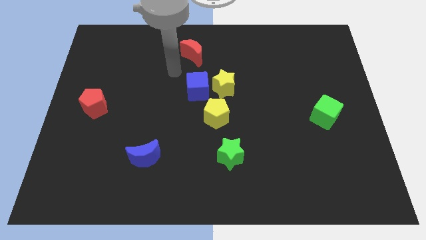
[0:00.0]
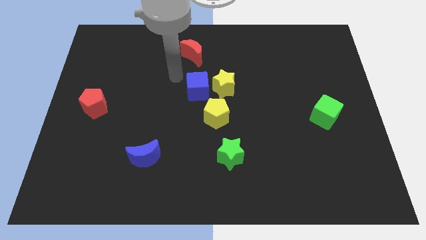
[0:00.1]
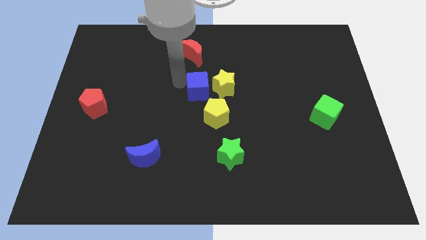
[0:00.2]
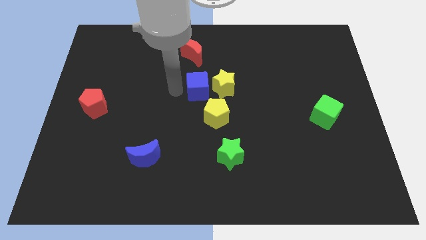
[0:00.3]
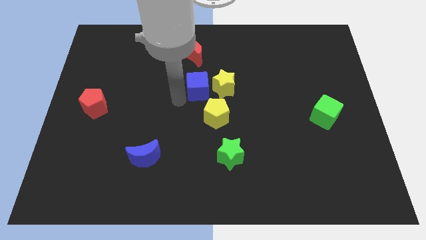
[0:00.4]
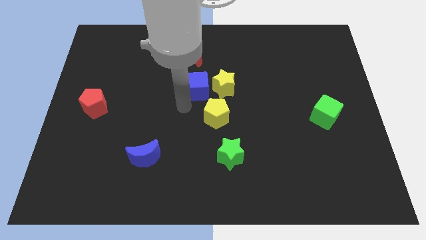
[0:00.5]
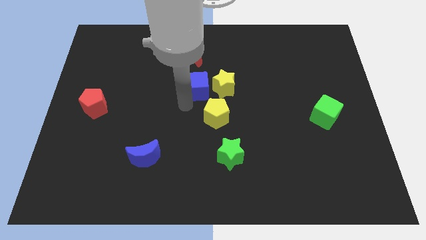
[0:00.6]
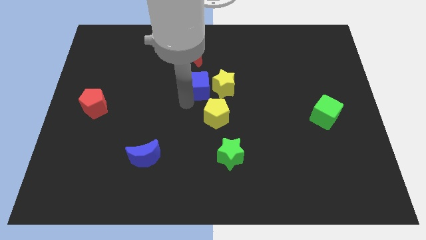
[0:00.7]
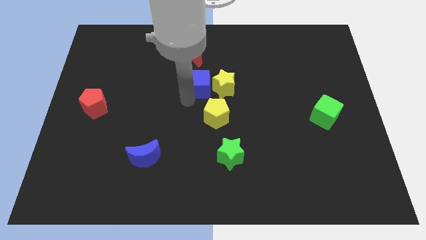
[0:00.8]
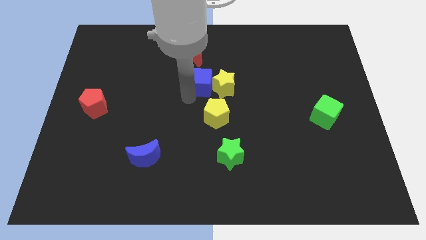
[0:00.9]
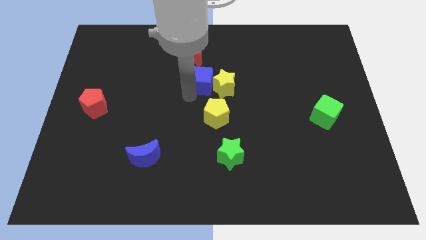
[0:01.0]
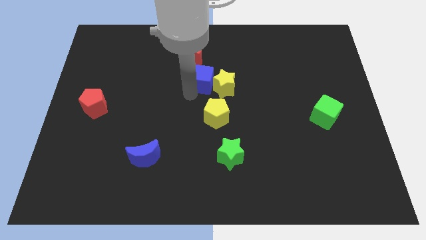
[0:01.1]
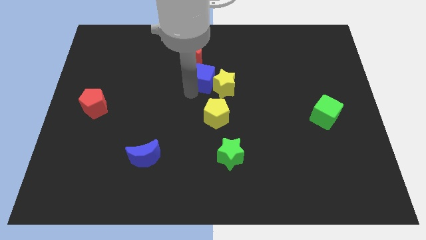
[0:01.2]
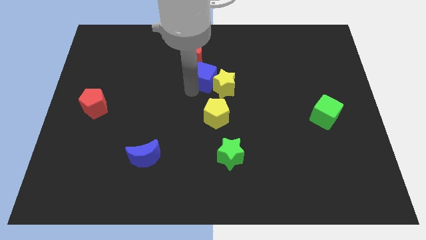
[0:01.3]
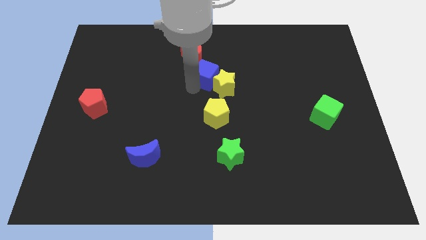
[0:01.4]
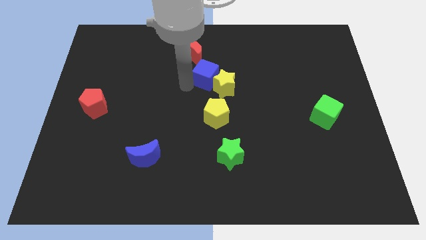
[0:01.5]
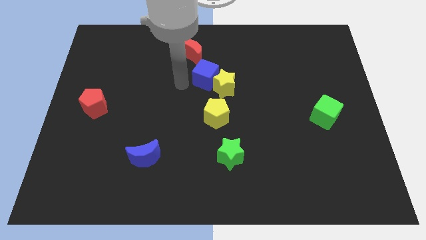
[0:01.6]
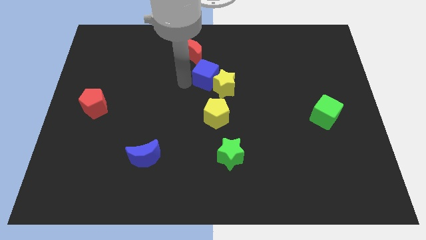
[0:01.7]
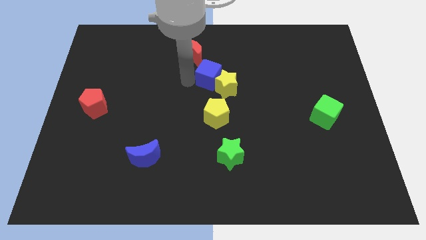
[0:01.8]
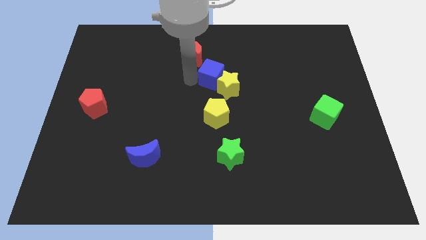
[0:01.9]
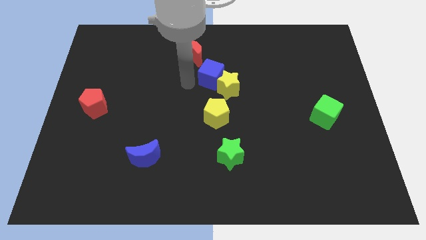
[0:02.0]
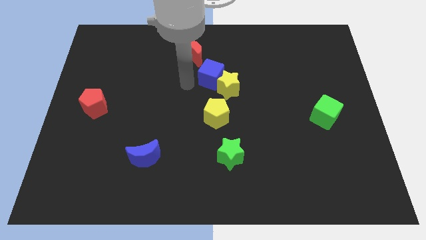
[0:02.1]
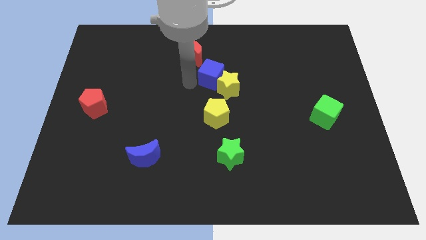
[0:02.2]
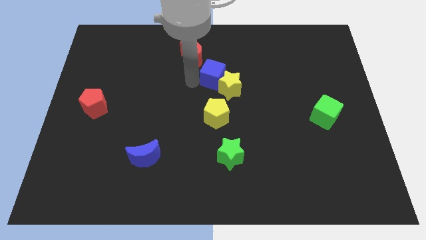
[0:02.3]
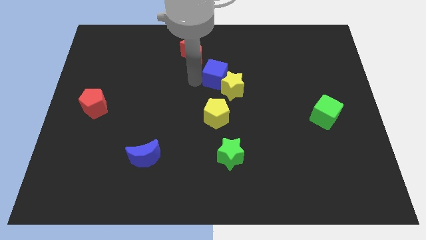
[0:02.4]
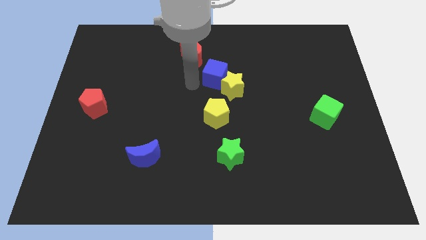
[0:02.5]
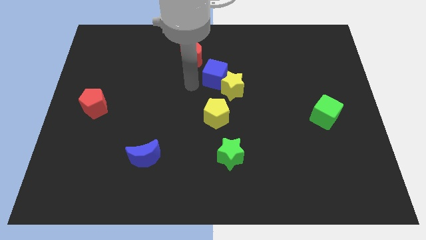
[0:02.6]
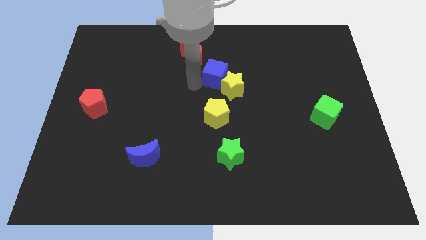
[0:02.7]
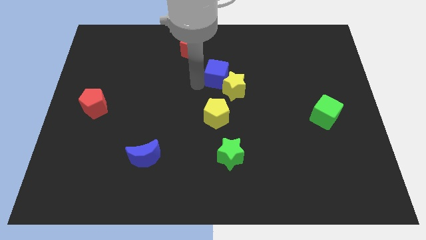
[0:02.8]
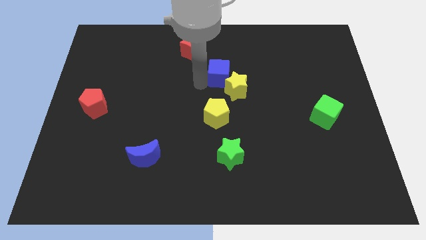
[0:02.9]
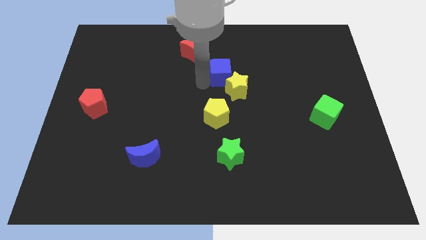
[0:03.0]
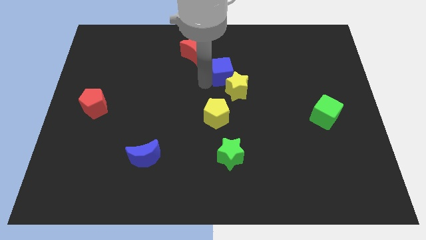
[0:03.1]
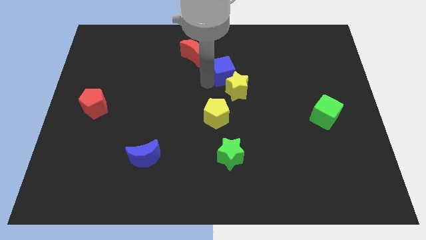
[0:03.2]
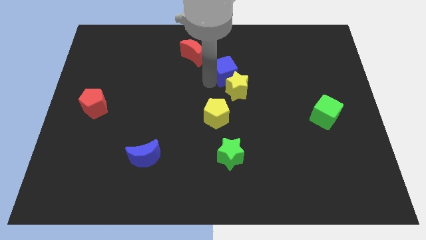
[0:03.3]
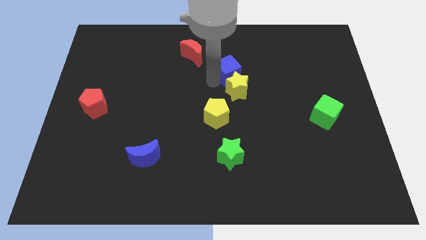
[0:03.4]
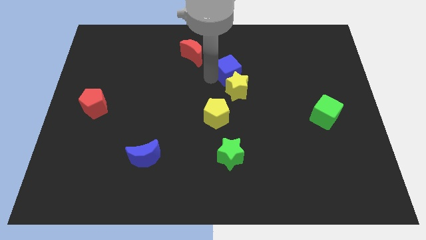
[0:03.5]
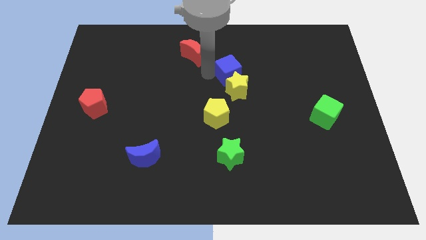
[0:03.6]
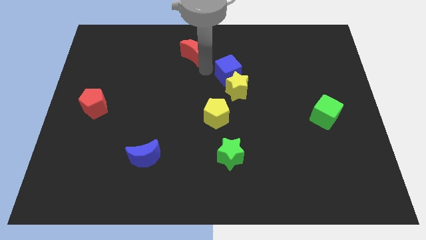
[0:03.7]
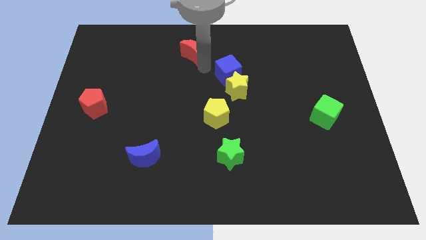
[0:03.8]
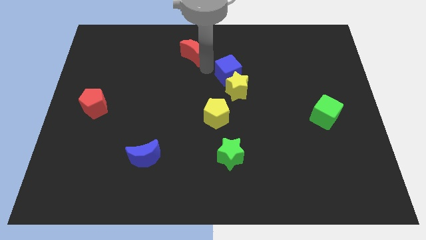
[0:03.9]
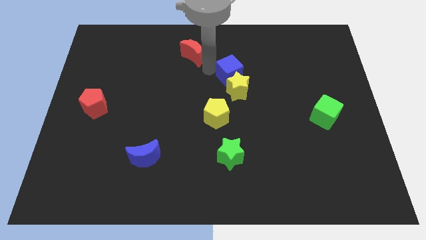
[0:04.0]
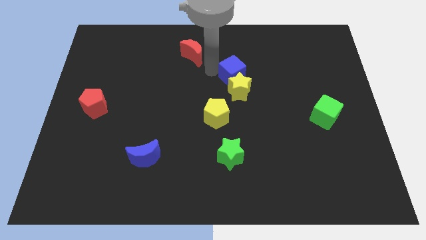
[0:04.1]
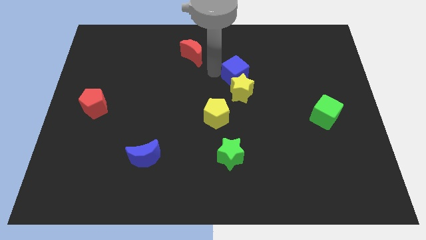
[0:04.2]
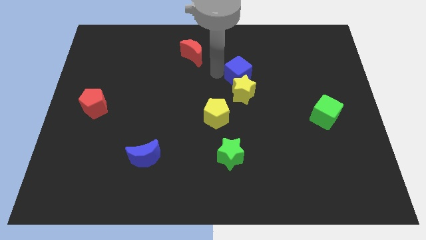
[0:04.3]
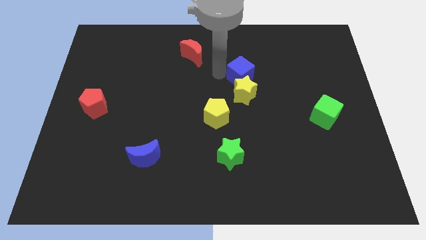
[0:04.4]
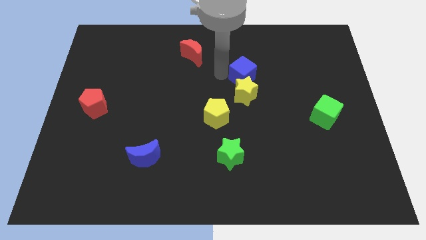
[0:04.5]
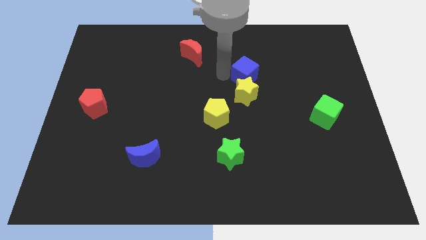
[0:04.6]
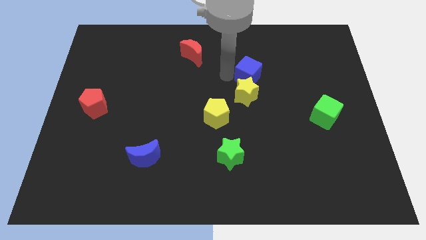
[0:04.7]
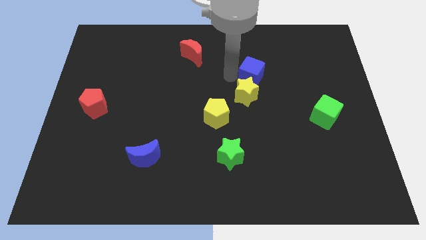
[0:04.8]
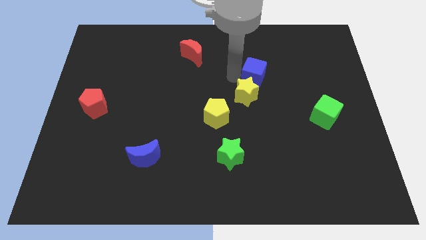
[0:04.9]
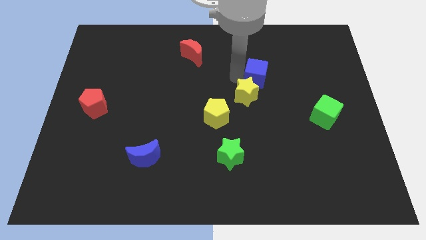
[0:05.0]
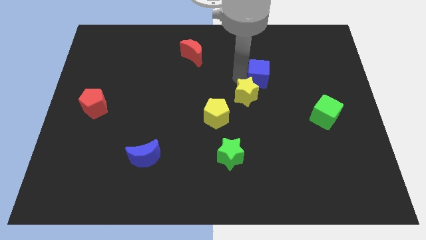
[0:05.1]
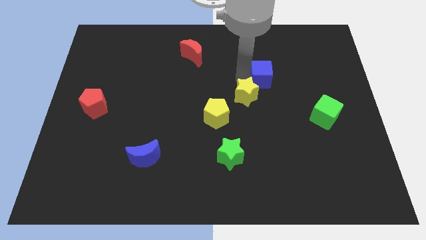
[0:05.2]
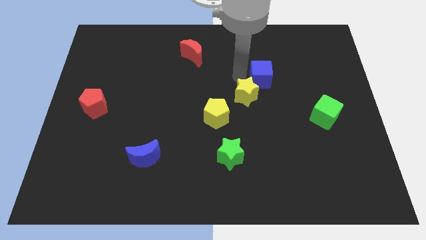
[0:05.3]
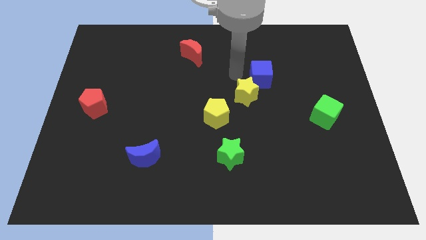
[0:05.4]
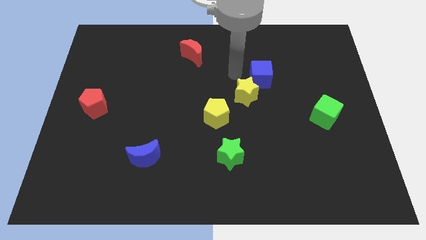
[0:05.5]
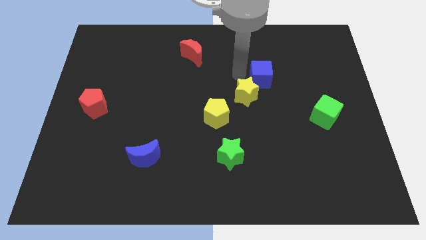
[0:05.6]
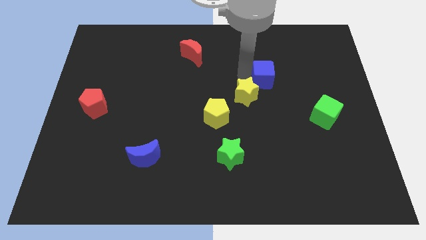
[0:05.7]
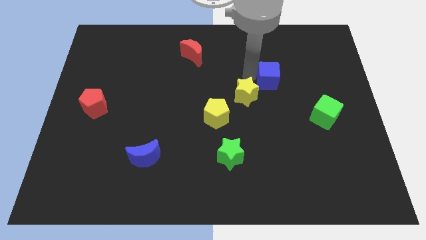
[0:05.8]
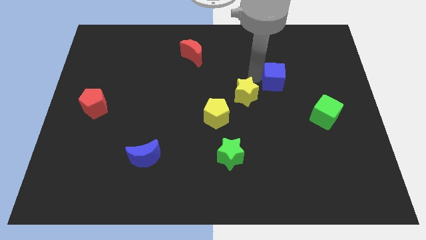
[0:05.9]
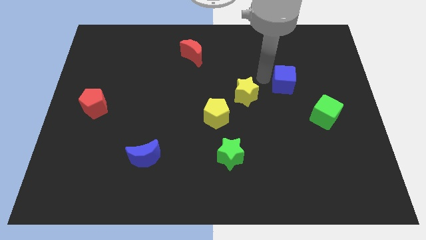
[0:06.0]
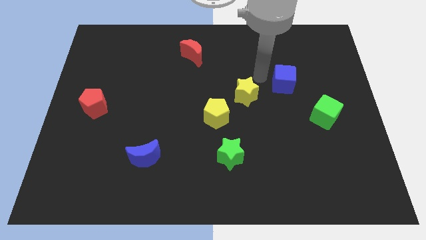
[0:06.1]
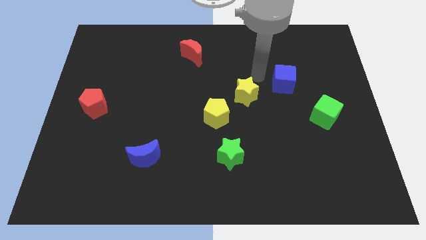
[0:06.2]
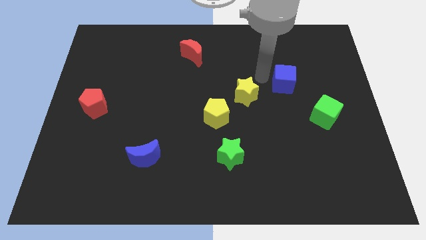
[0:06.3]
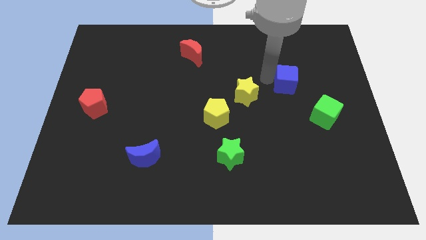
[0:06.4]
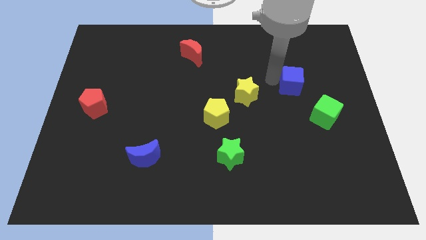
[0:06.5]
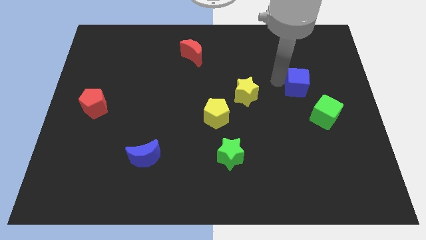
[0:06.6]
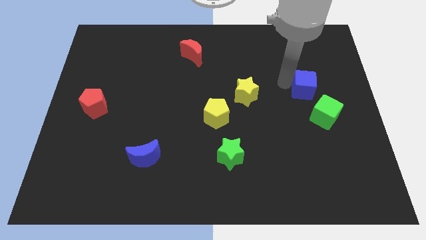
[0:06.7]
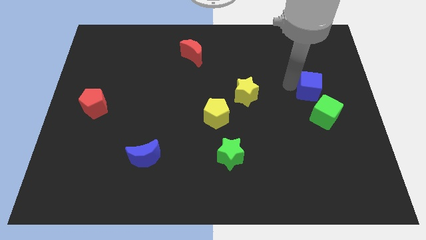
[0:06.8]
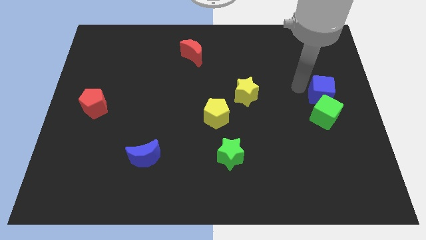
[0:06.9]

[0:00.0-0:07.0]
put the blue cube to the right side of the board
